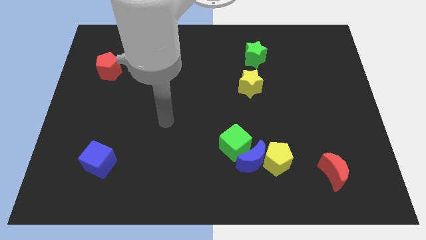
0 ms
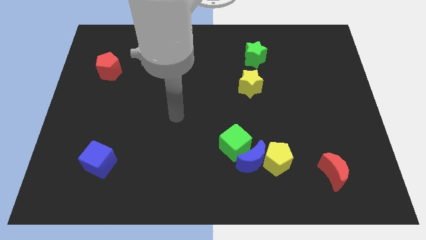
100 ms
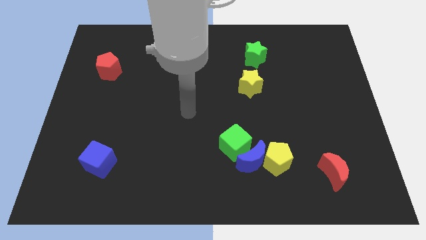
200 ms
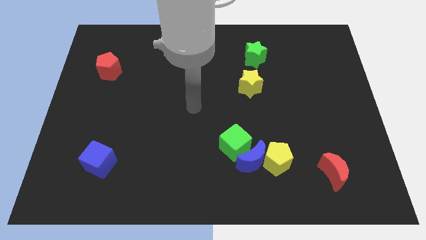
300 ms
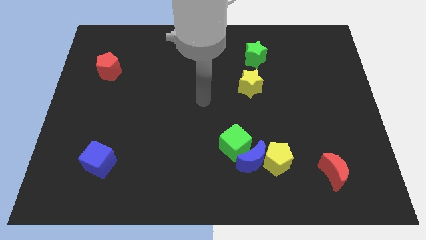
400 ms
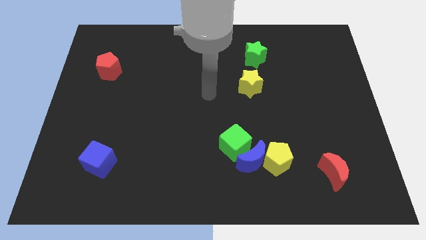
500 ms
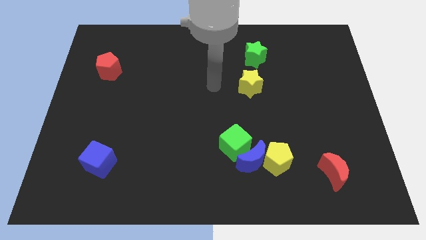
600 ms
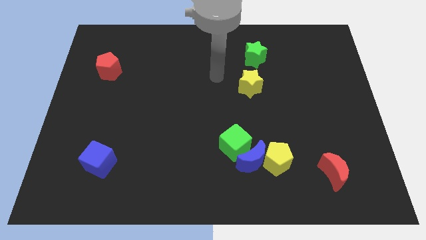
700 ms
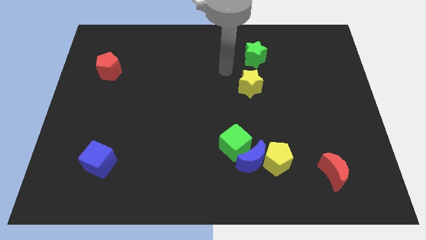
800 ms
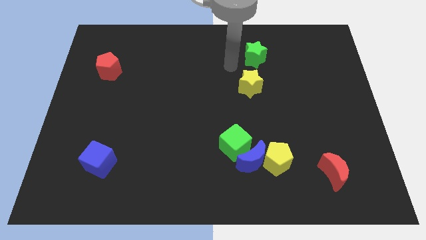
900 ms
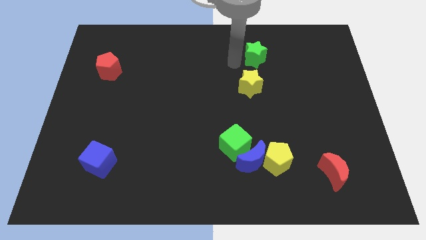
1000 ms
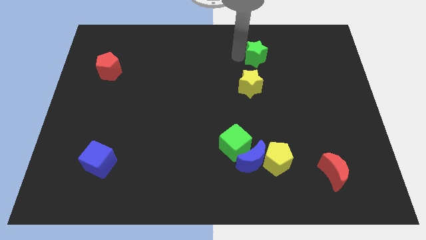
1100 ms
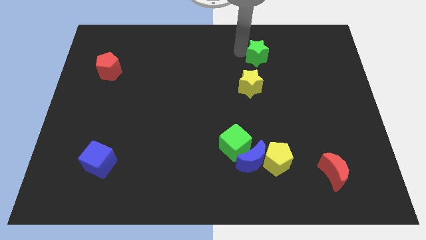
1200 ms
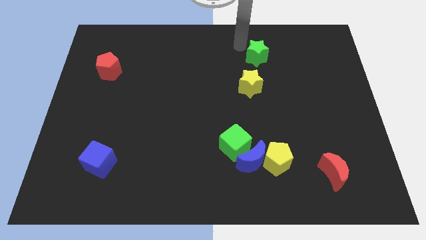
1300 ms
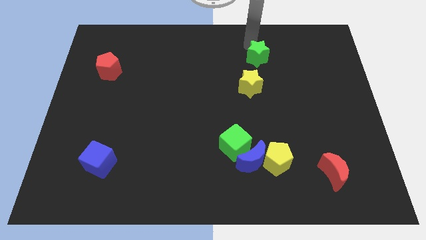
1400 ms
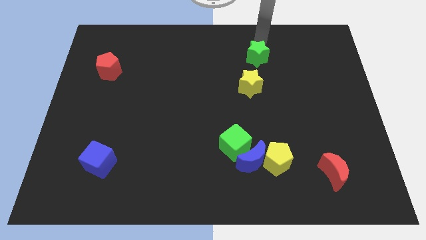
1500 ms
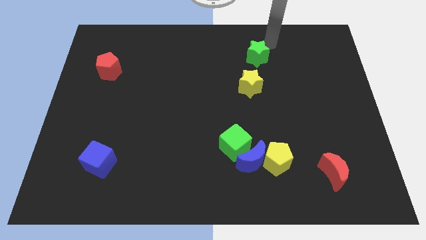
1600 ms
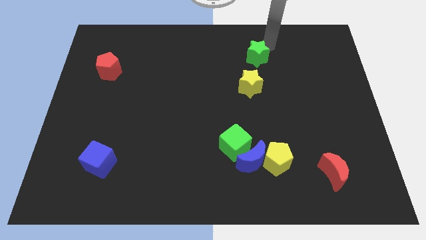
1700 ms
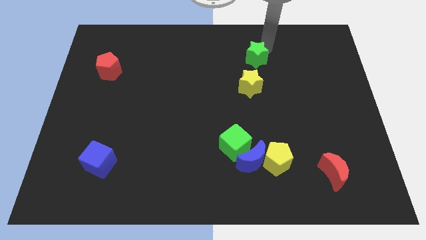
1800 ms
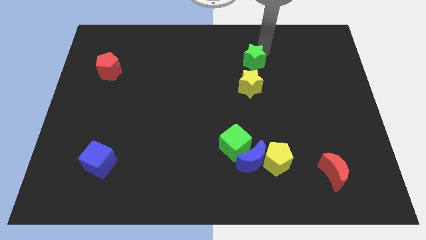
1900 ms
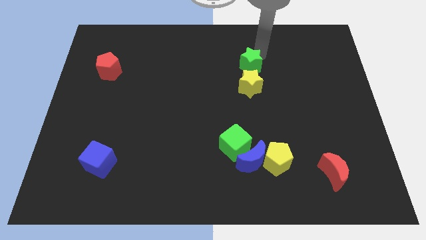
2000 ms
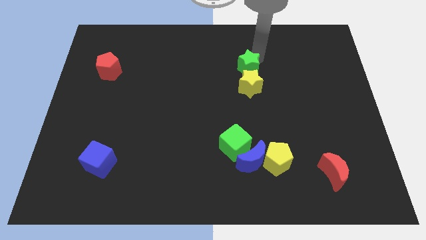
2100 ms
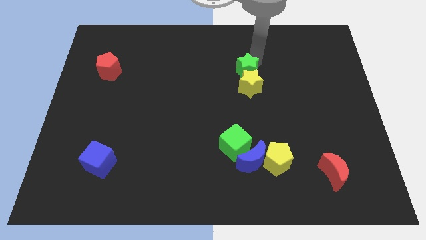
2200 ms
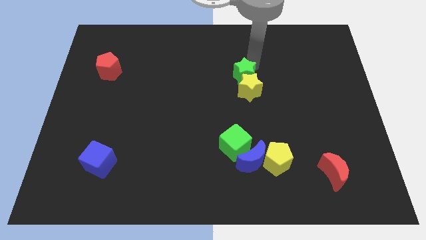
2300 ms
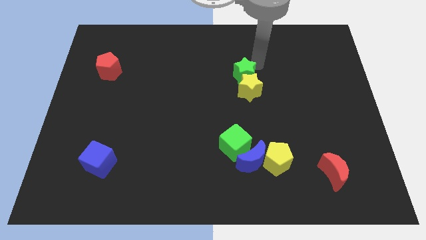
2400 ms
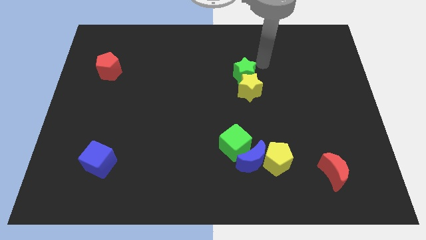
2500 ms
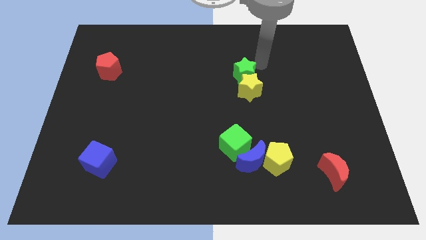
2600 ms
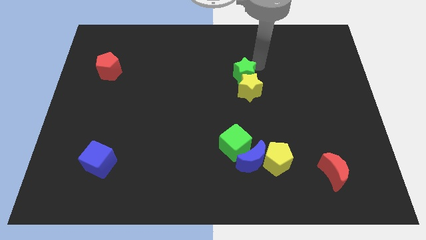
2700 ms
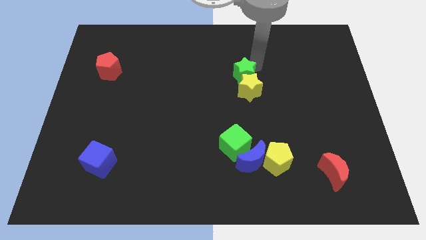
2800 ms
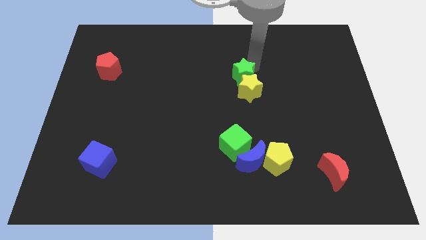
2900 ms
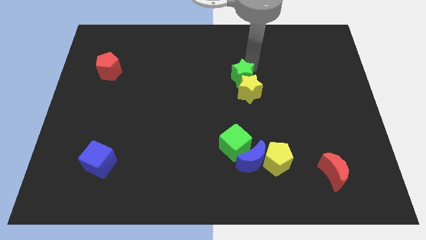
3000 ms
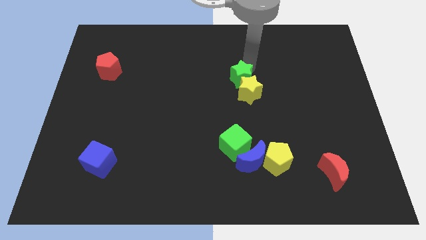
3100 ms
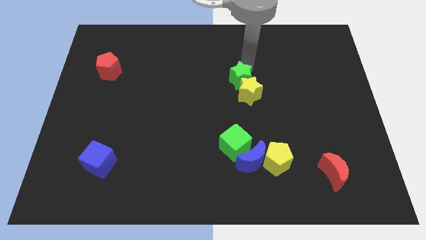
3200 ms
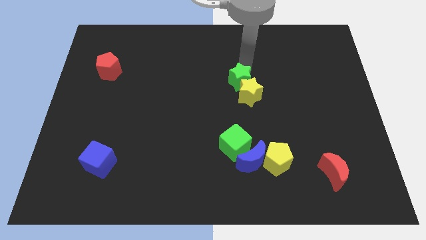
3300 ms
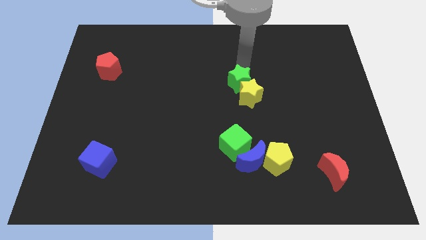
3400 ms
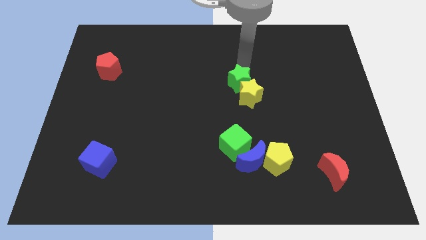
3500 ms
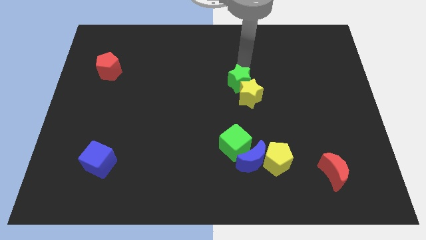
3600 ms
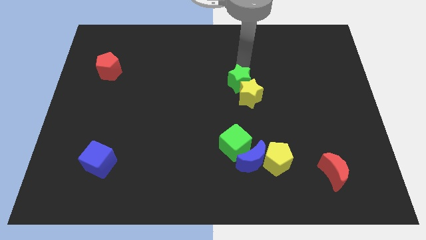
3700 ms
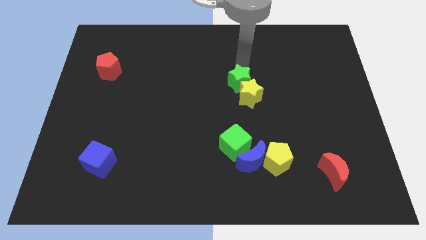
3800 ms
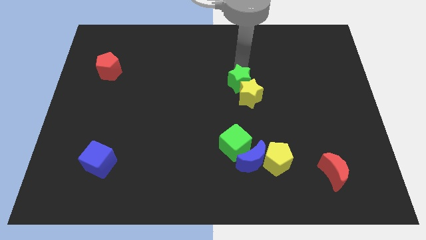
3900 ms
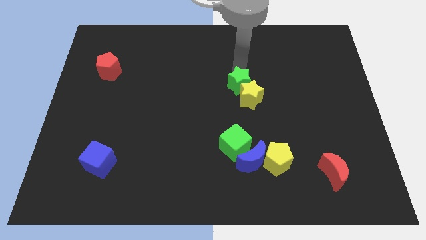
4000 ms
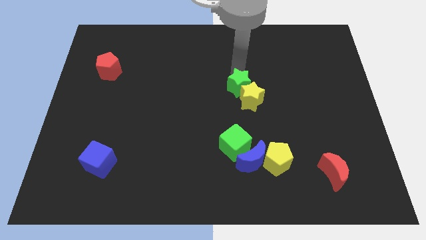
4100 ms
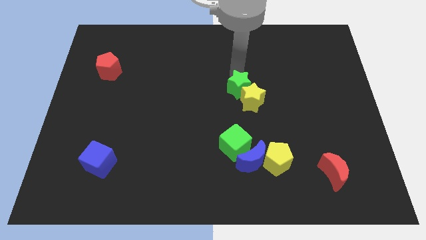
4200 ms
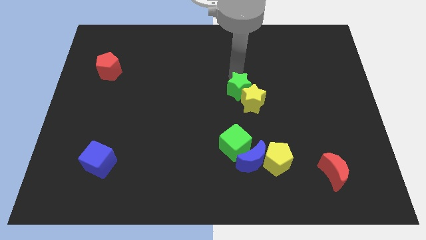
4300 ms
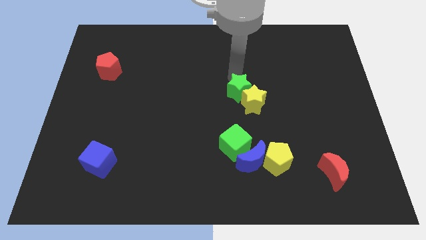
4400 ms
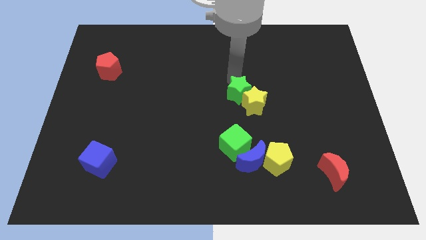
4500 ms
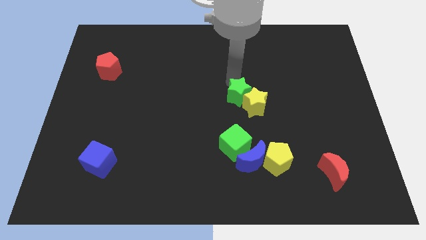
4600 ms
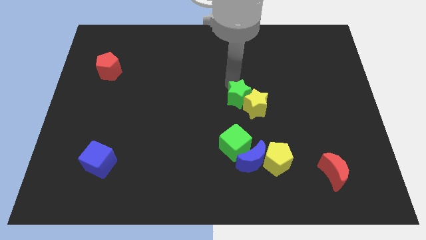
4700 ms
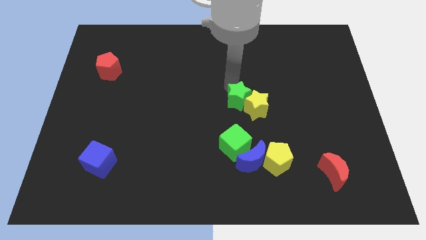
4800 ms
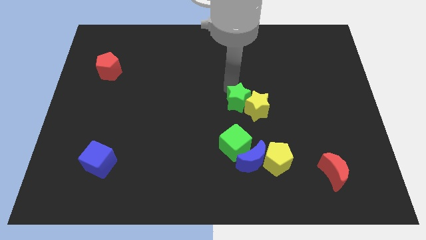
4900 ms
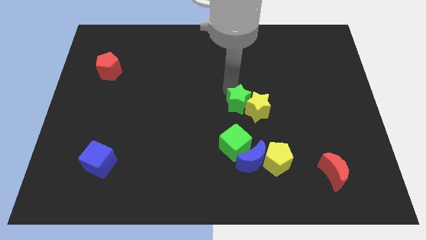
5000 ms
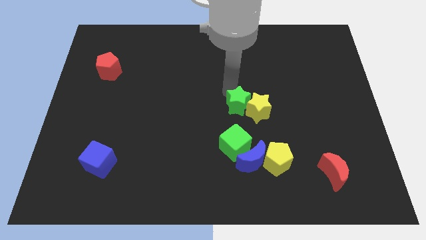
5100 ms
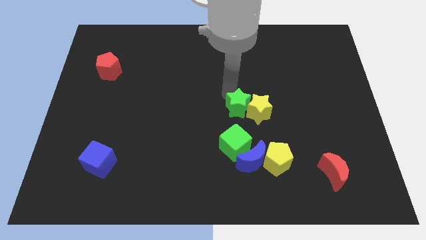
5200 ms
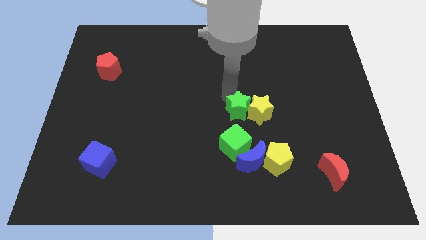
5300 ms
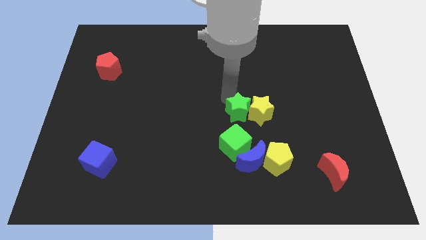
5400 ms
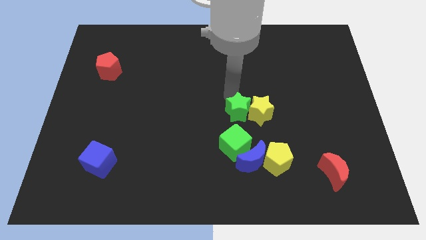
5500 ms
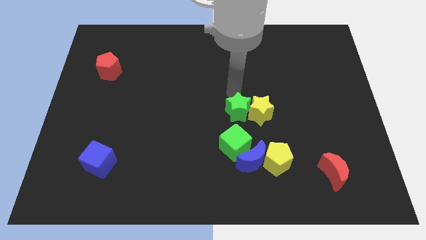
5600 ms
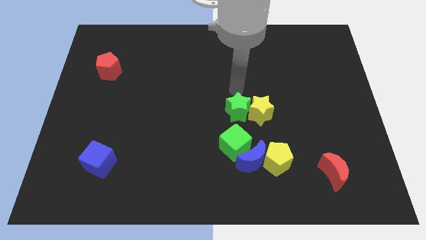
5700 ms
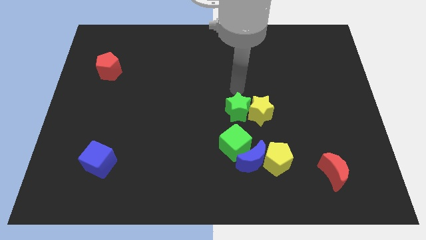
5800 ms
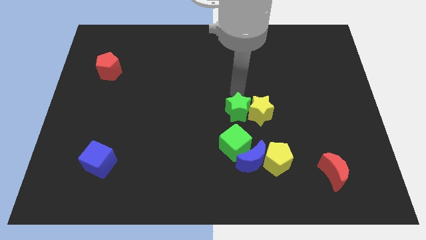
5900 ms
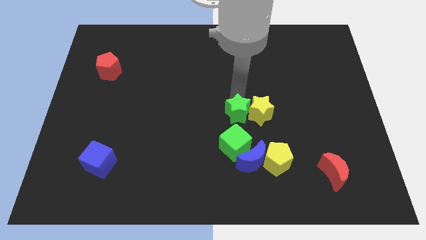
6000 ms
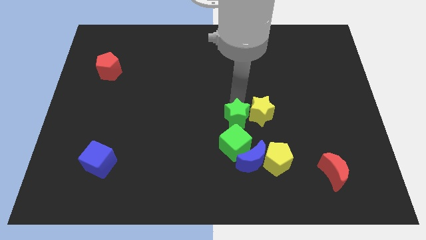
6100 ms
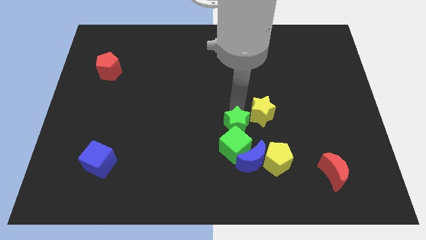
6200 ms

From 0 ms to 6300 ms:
move the green star to the green cube

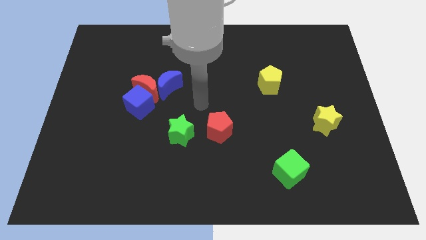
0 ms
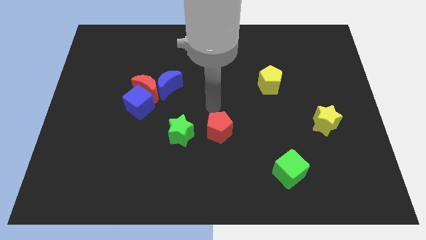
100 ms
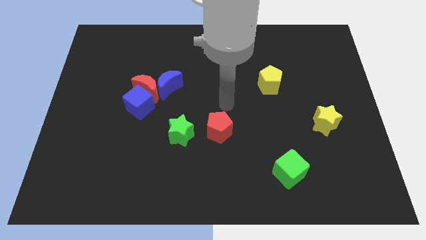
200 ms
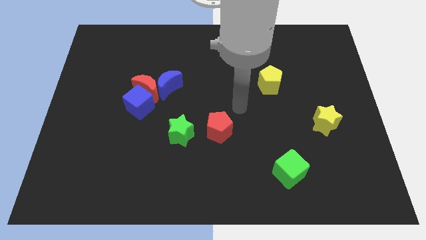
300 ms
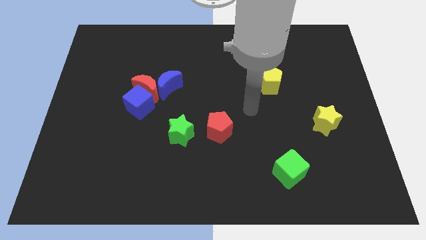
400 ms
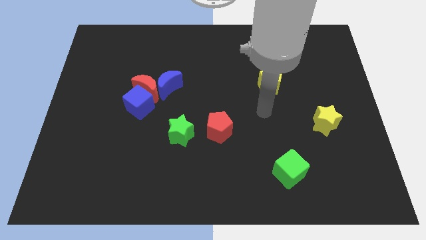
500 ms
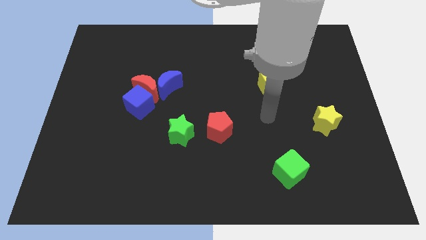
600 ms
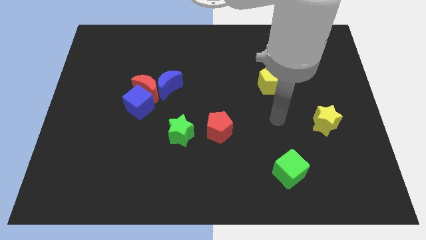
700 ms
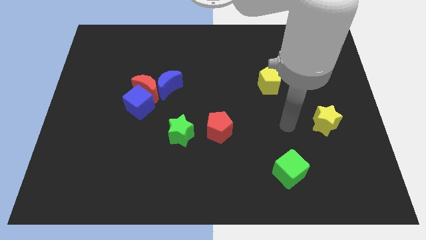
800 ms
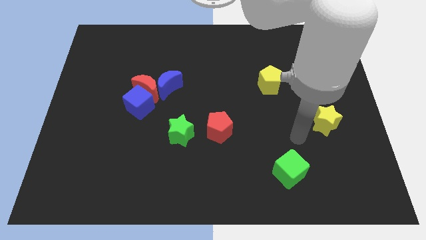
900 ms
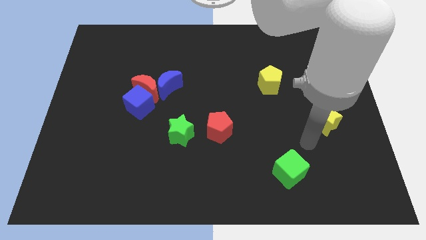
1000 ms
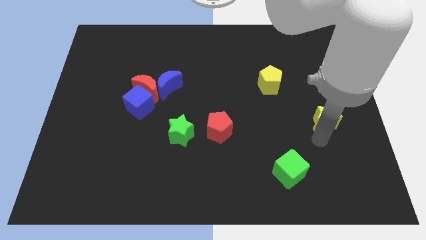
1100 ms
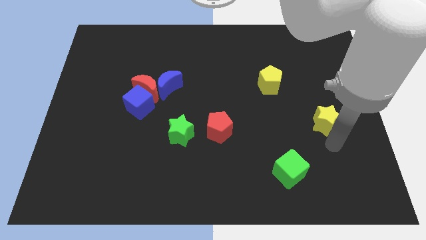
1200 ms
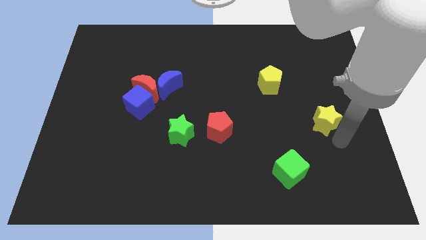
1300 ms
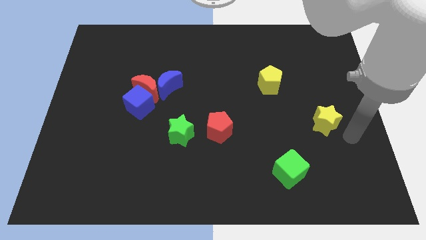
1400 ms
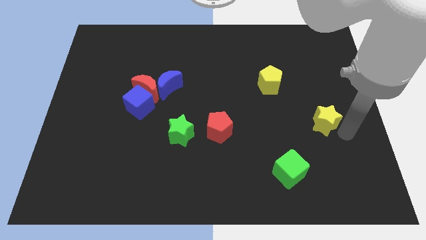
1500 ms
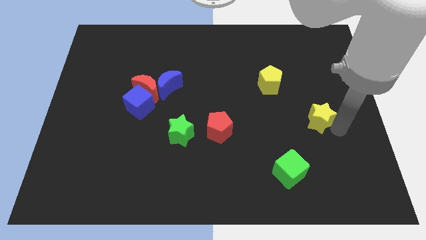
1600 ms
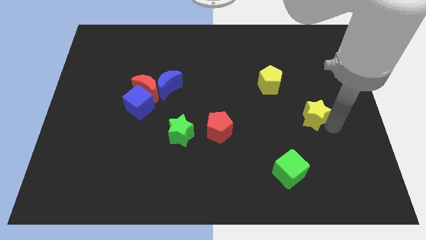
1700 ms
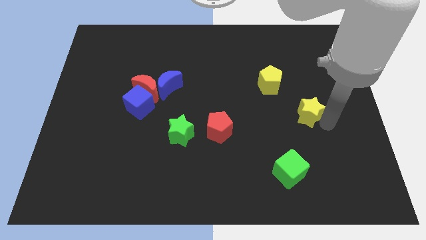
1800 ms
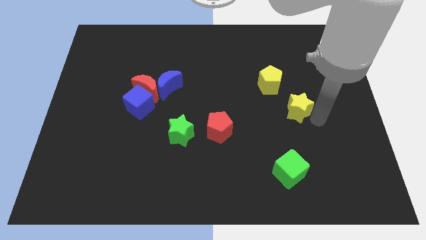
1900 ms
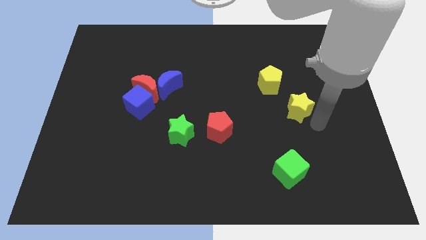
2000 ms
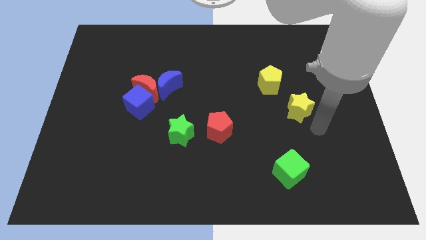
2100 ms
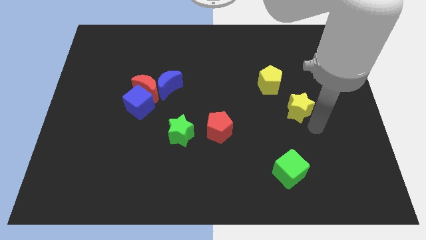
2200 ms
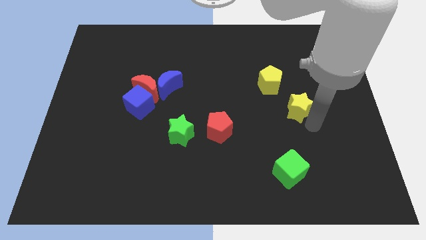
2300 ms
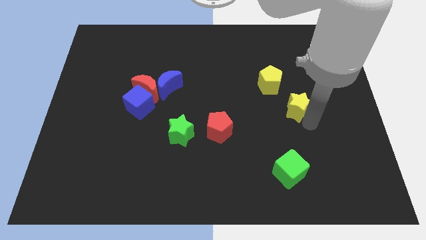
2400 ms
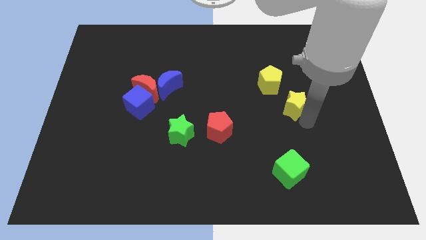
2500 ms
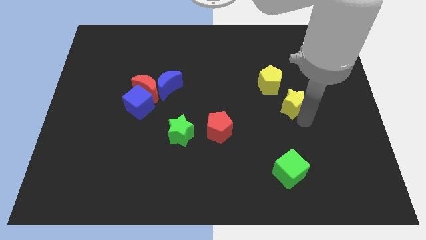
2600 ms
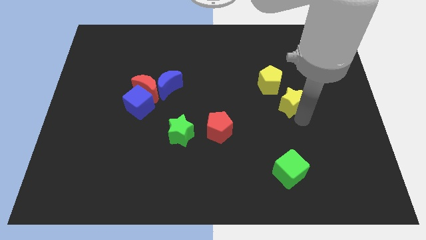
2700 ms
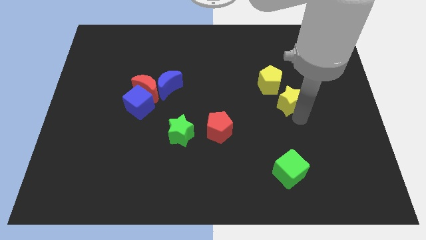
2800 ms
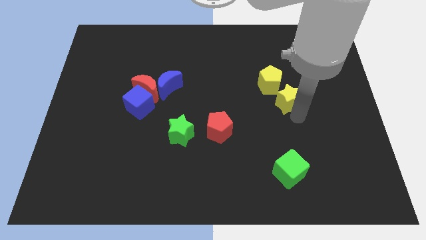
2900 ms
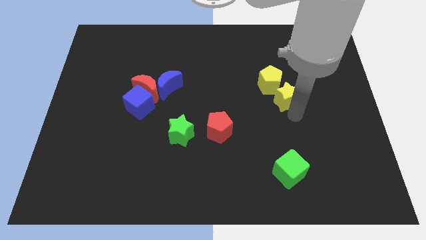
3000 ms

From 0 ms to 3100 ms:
move the yellow star close to the yellow pentagon
